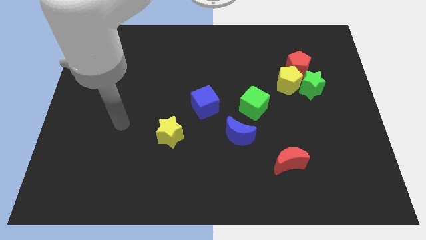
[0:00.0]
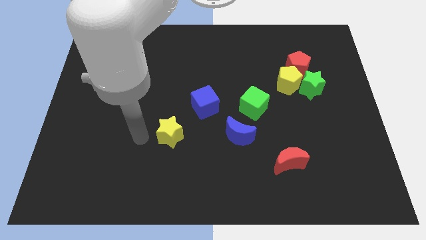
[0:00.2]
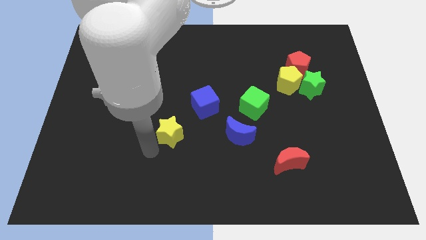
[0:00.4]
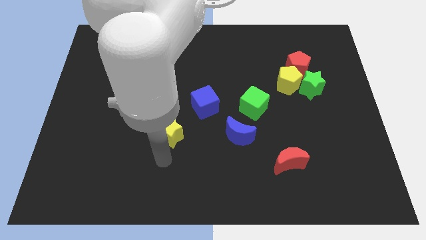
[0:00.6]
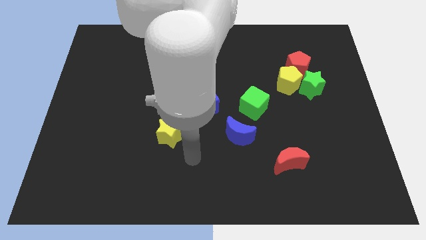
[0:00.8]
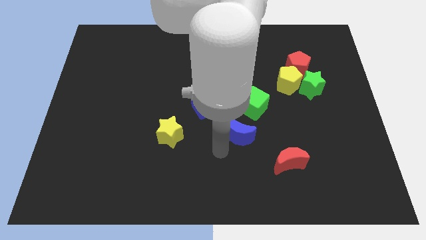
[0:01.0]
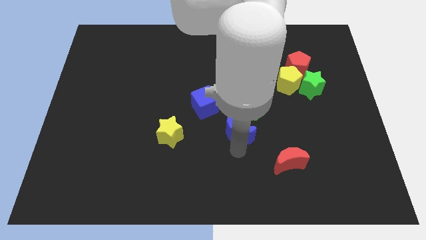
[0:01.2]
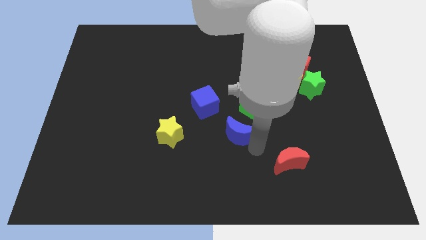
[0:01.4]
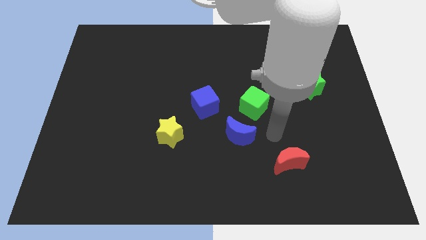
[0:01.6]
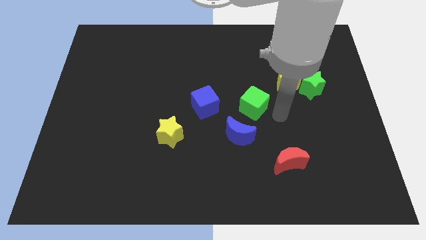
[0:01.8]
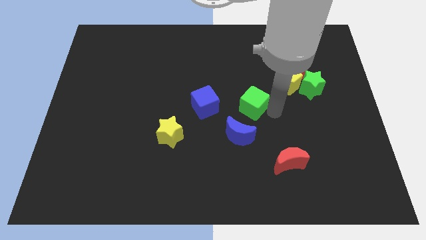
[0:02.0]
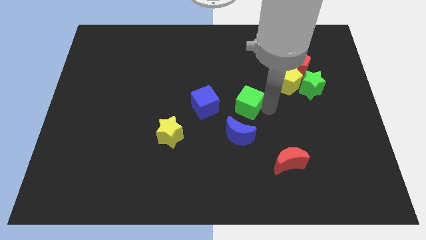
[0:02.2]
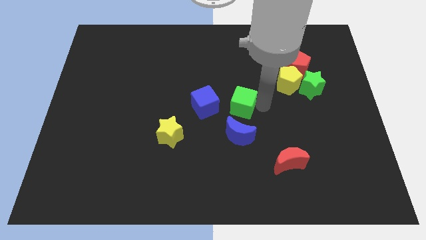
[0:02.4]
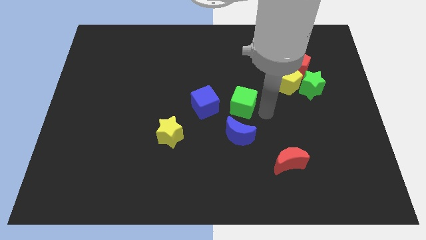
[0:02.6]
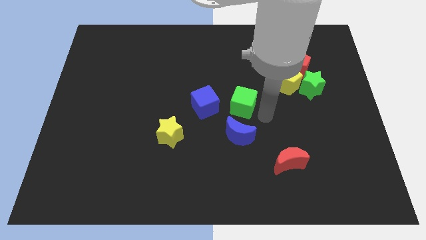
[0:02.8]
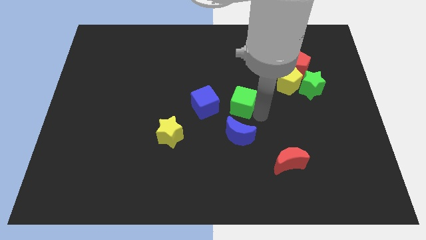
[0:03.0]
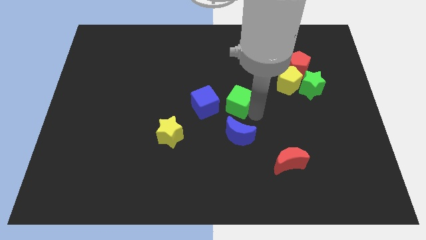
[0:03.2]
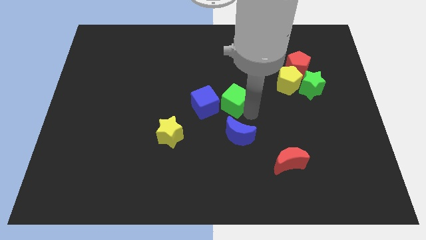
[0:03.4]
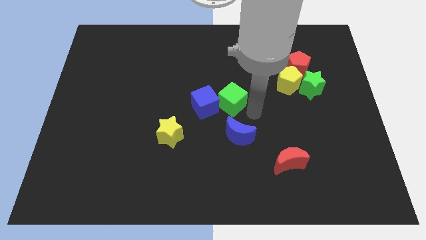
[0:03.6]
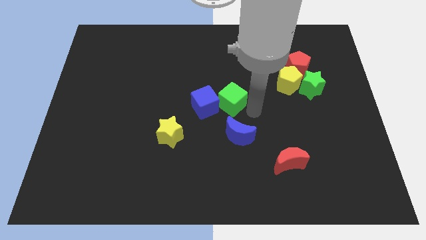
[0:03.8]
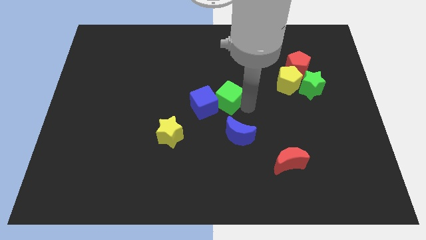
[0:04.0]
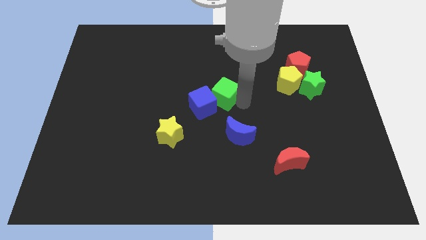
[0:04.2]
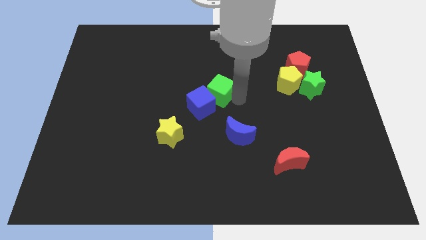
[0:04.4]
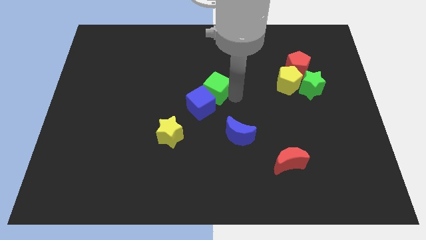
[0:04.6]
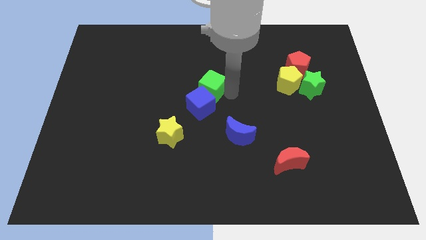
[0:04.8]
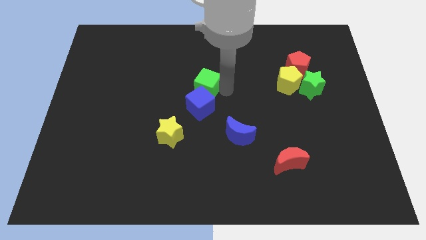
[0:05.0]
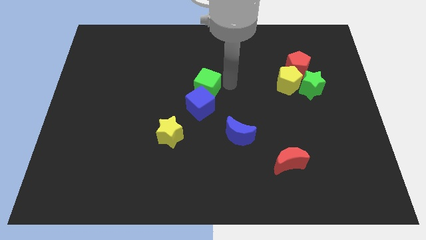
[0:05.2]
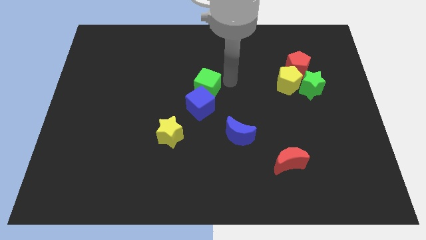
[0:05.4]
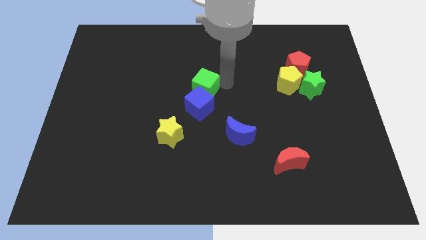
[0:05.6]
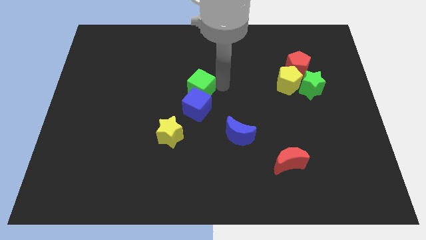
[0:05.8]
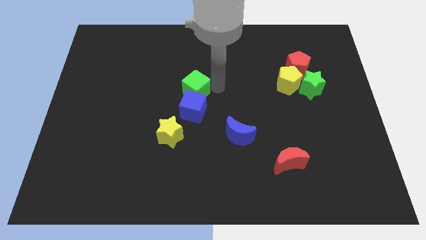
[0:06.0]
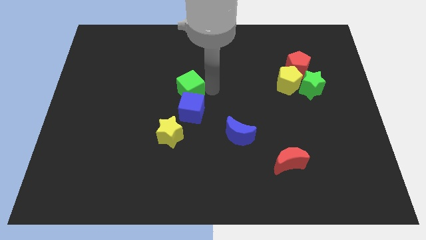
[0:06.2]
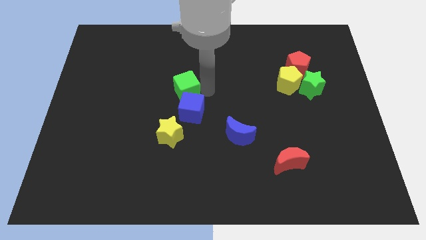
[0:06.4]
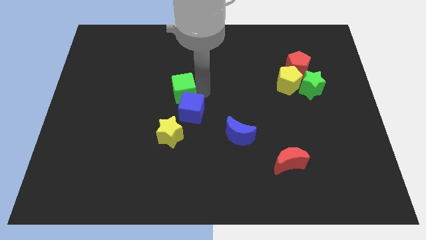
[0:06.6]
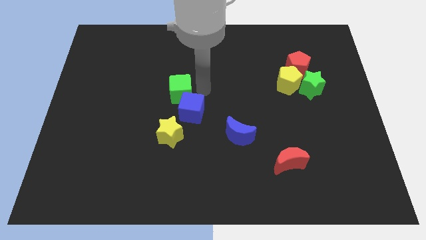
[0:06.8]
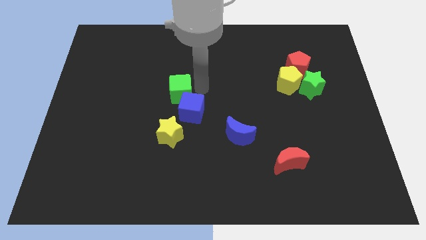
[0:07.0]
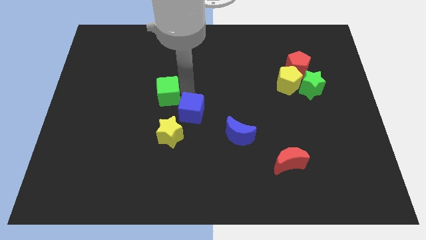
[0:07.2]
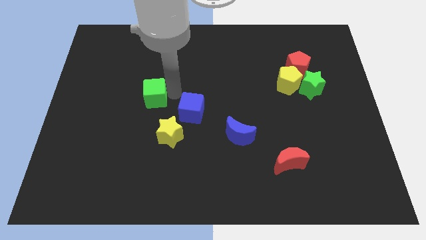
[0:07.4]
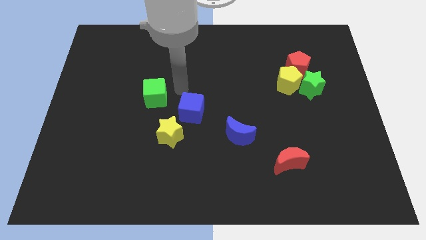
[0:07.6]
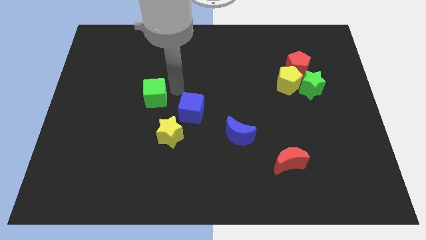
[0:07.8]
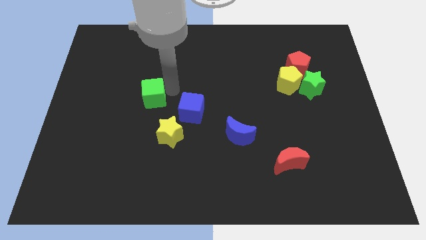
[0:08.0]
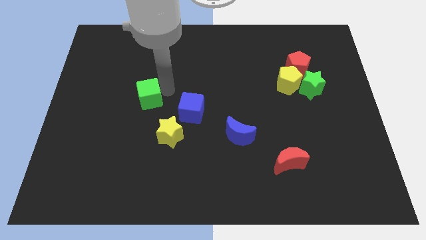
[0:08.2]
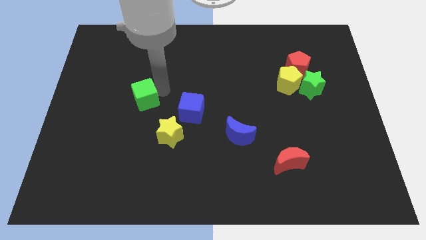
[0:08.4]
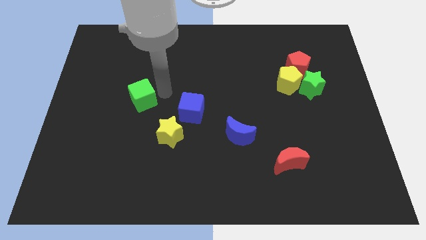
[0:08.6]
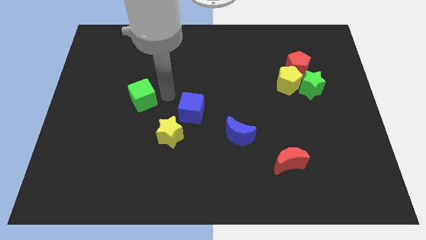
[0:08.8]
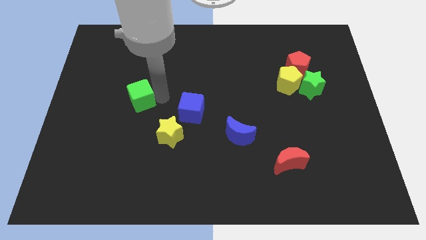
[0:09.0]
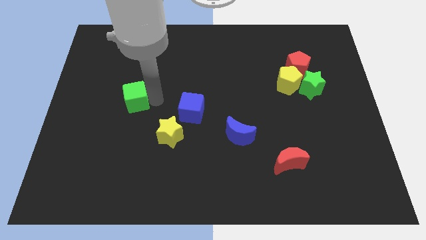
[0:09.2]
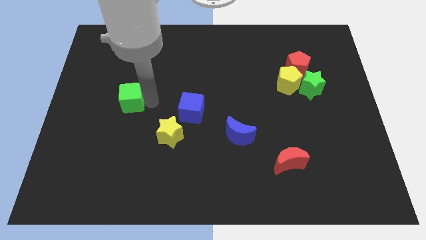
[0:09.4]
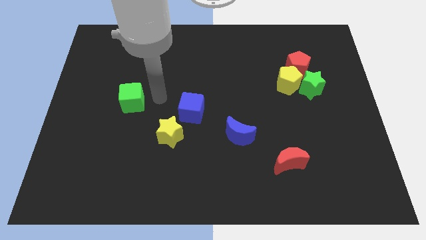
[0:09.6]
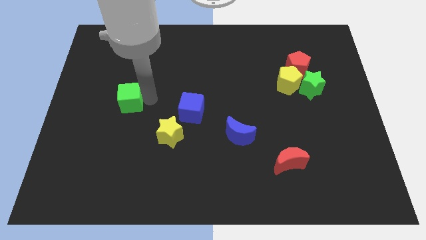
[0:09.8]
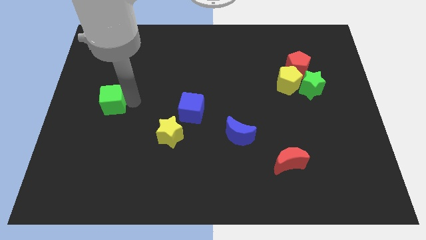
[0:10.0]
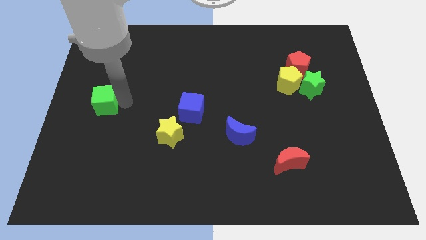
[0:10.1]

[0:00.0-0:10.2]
put the green cube to the left side of the board

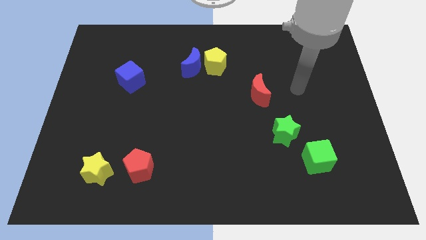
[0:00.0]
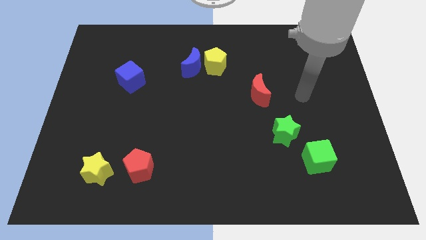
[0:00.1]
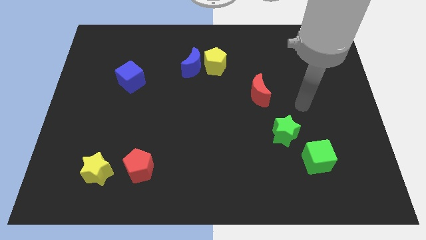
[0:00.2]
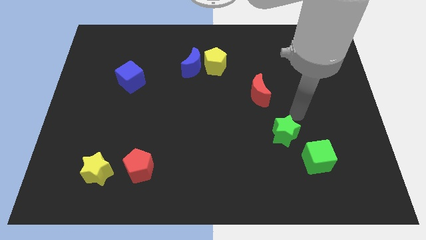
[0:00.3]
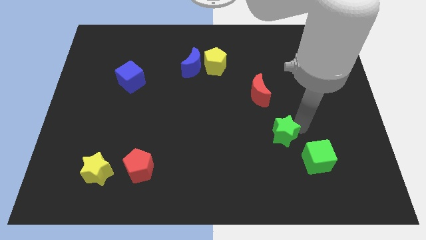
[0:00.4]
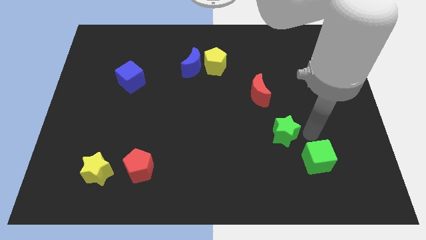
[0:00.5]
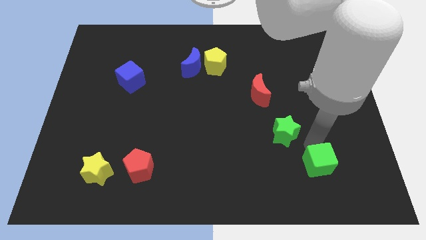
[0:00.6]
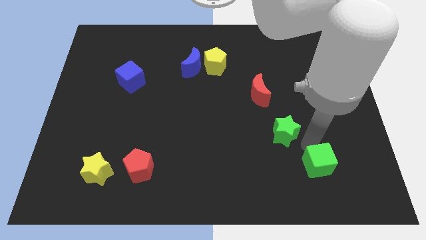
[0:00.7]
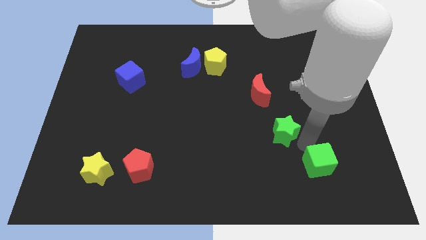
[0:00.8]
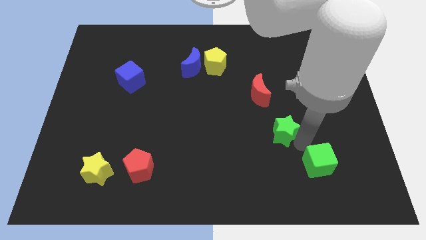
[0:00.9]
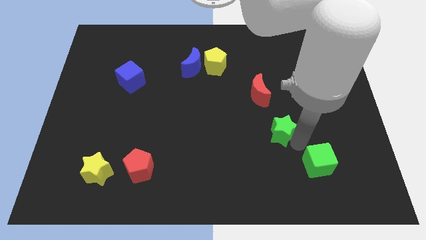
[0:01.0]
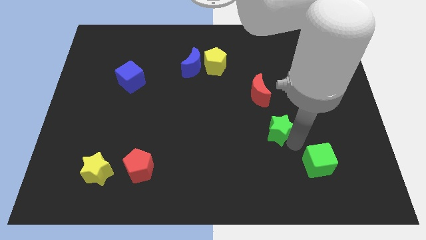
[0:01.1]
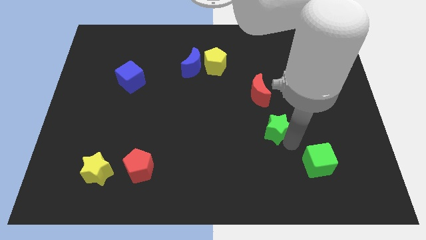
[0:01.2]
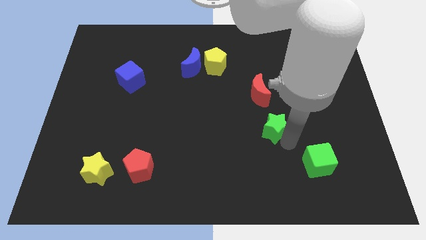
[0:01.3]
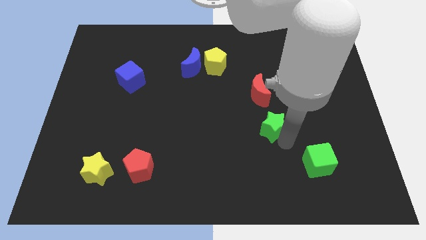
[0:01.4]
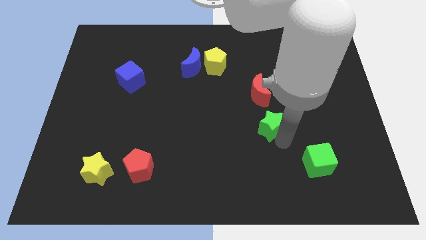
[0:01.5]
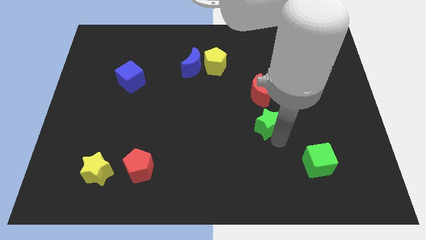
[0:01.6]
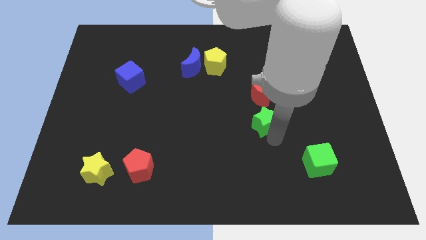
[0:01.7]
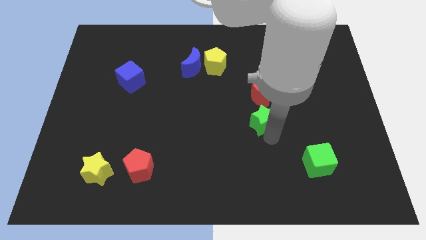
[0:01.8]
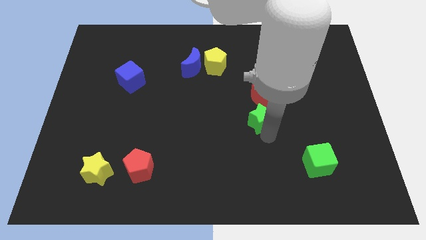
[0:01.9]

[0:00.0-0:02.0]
move the green star to the middle
